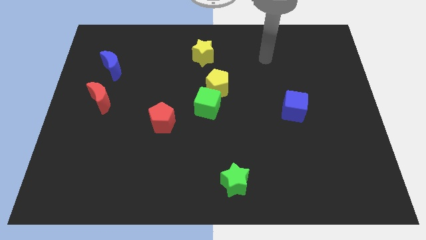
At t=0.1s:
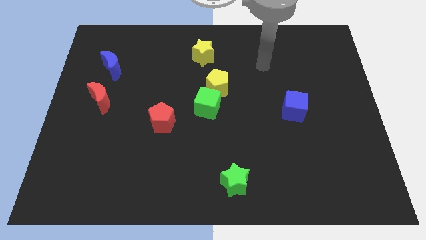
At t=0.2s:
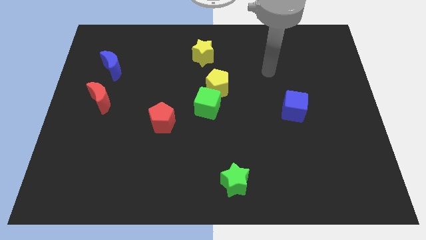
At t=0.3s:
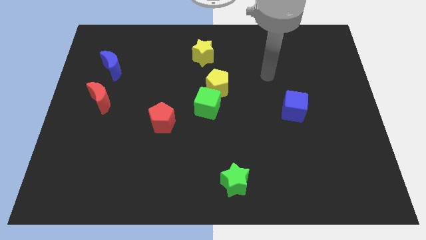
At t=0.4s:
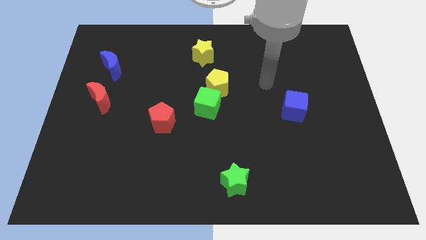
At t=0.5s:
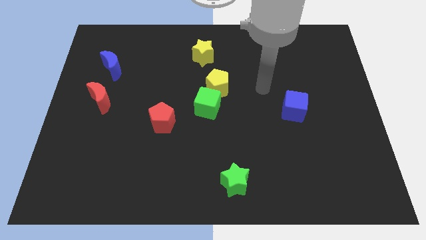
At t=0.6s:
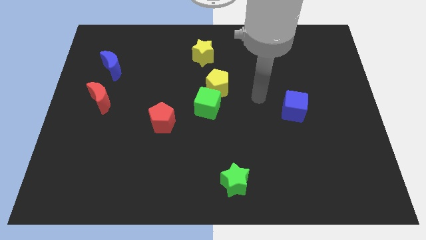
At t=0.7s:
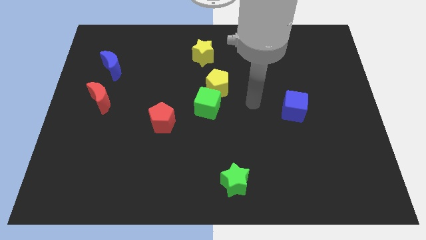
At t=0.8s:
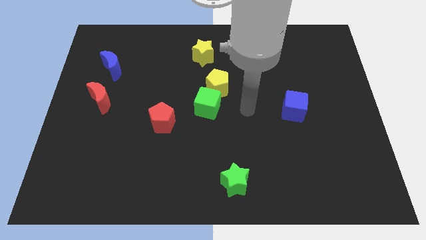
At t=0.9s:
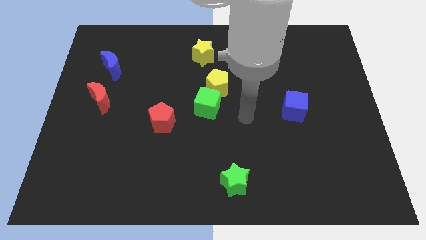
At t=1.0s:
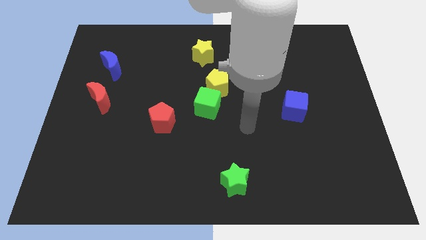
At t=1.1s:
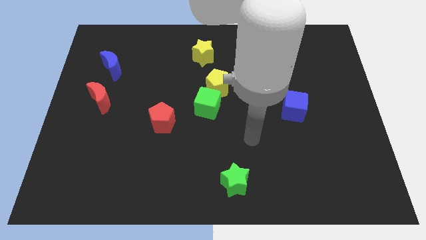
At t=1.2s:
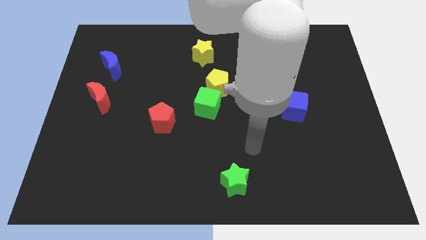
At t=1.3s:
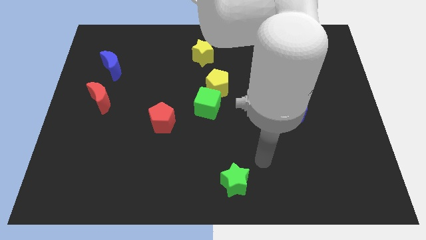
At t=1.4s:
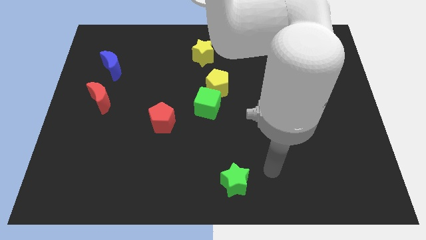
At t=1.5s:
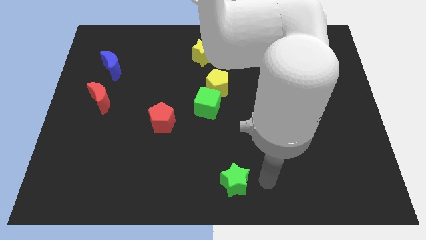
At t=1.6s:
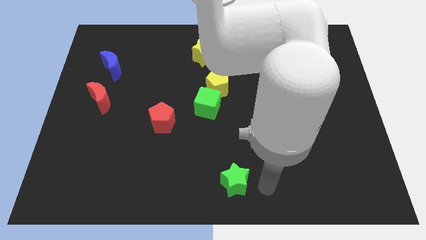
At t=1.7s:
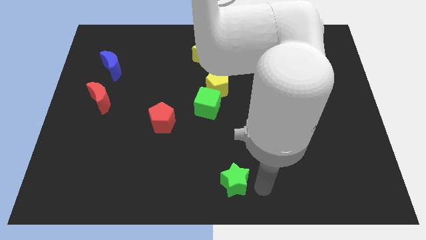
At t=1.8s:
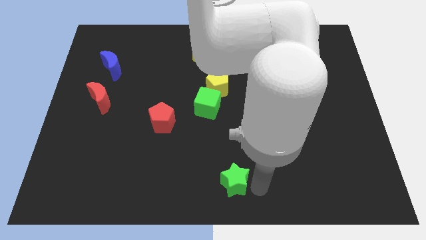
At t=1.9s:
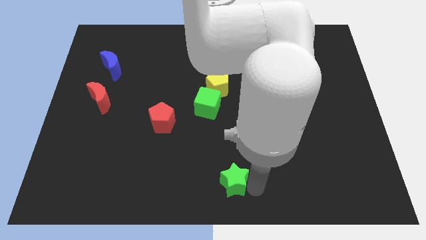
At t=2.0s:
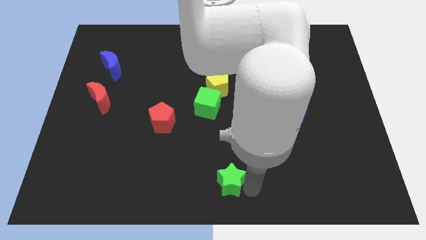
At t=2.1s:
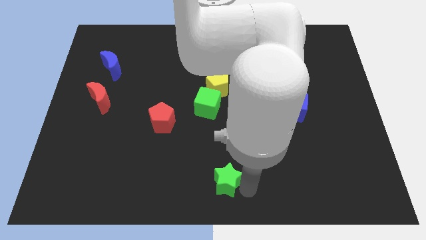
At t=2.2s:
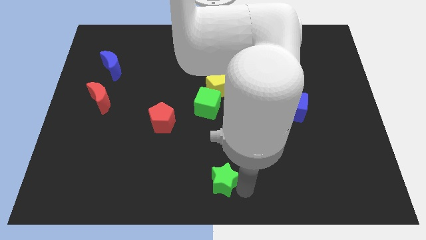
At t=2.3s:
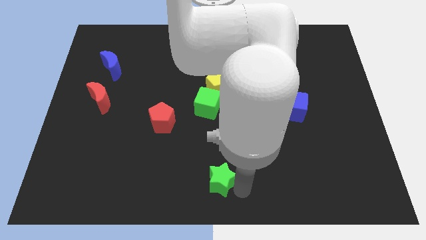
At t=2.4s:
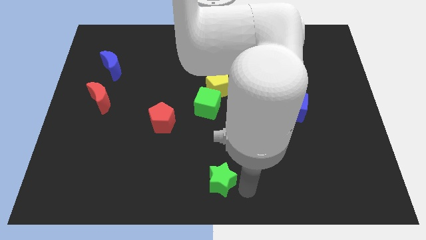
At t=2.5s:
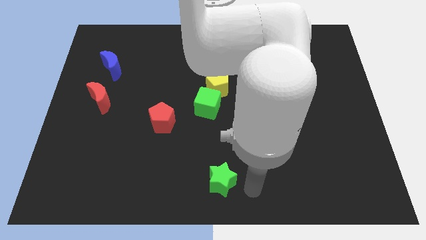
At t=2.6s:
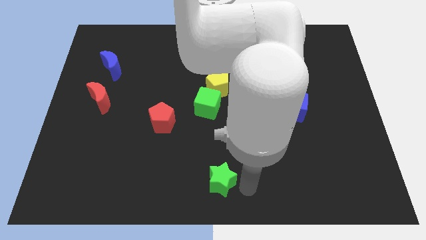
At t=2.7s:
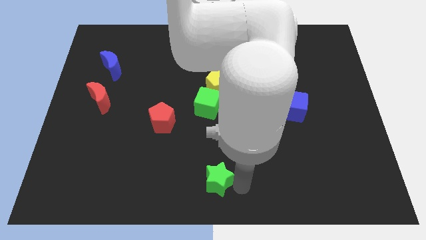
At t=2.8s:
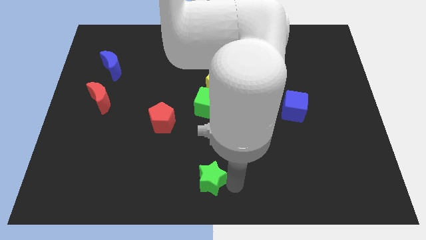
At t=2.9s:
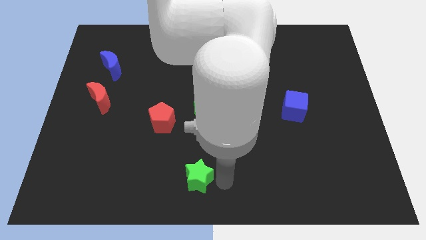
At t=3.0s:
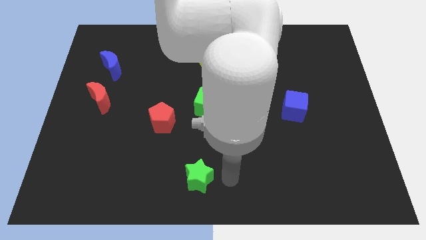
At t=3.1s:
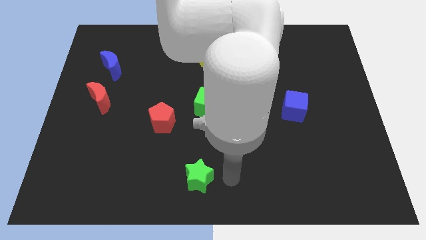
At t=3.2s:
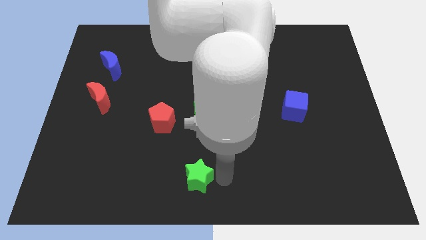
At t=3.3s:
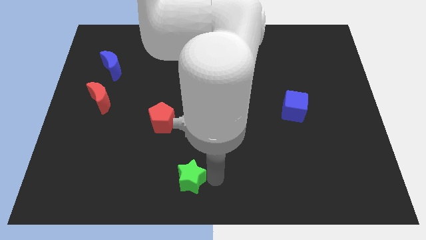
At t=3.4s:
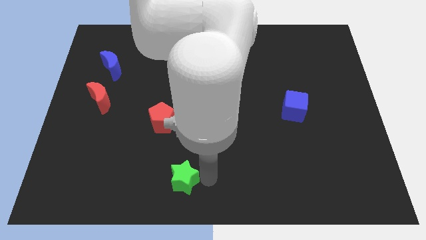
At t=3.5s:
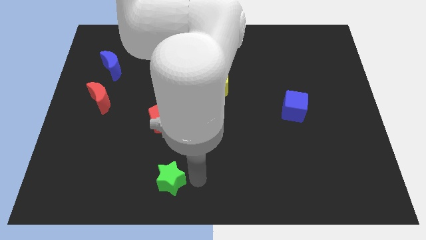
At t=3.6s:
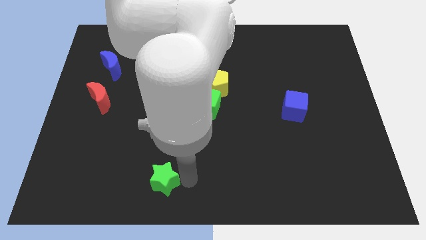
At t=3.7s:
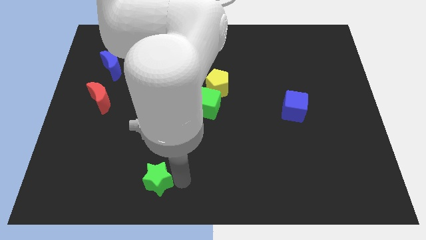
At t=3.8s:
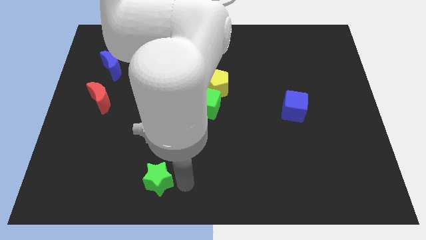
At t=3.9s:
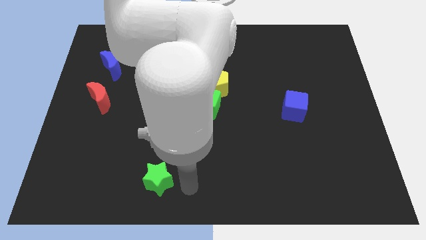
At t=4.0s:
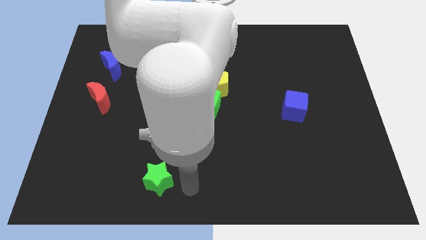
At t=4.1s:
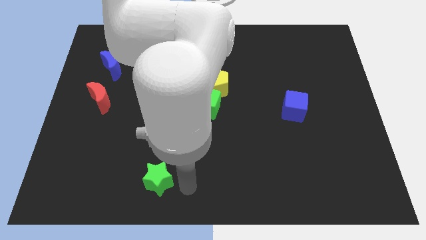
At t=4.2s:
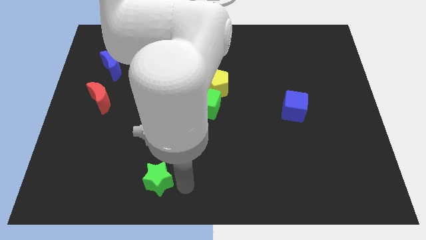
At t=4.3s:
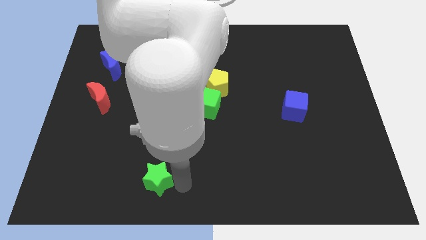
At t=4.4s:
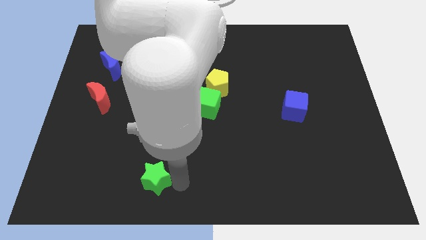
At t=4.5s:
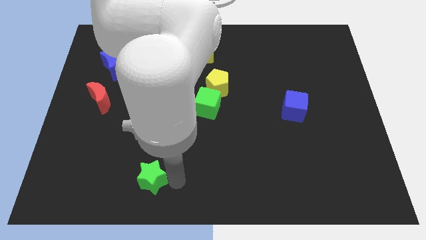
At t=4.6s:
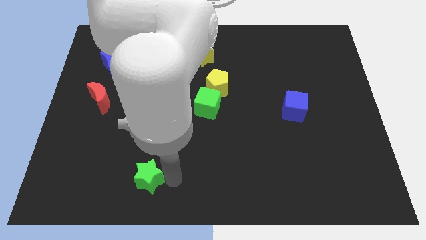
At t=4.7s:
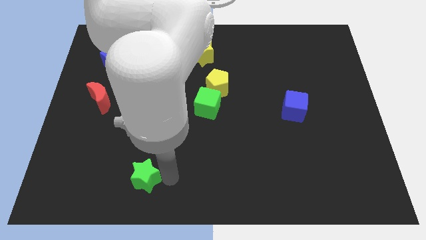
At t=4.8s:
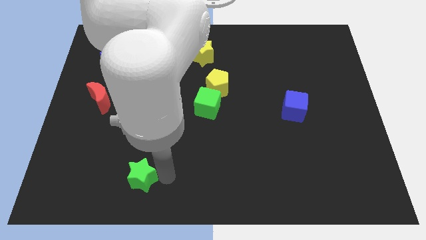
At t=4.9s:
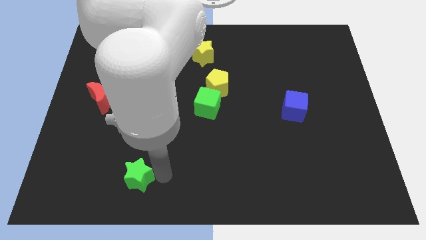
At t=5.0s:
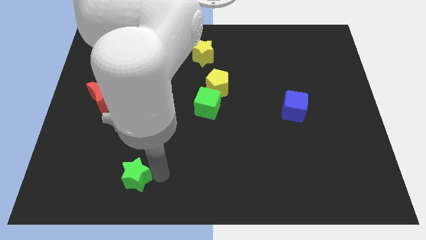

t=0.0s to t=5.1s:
slide the green star left

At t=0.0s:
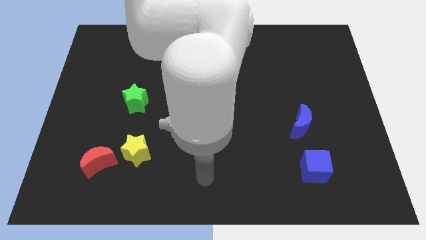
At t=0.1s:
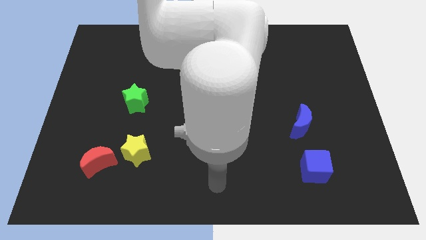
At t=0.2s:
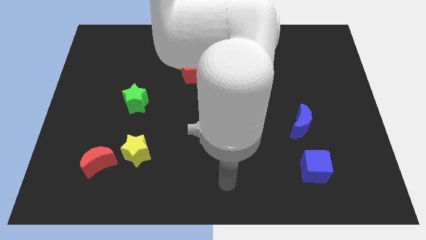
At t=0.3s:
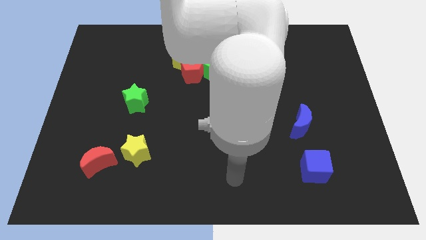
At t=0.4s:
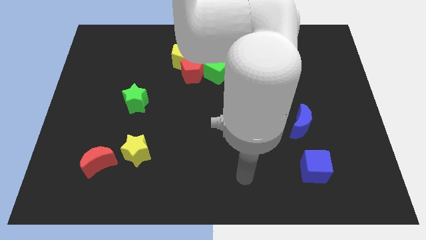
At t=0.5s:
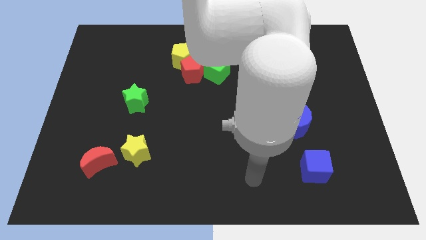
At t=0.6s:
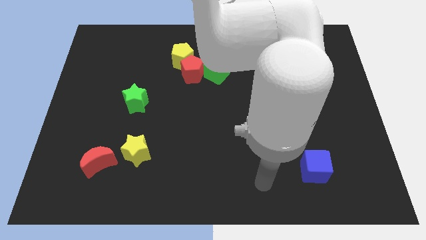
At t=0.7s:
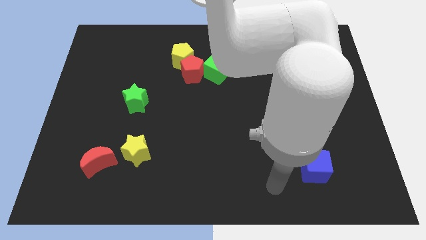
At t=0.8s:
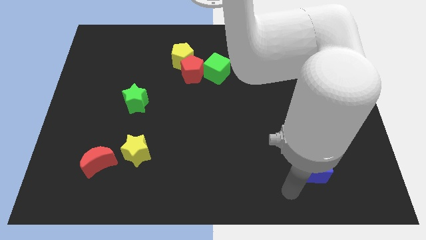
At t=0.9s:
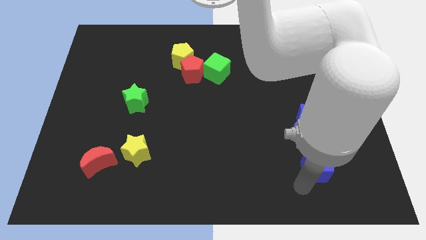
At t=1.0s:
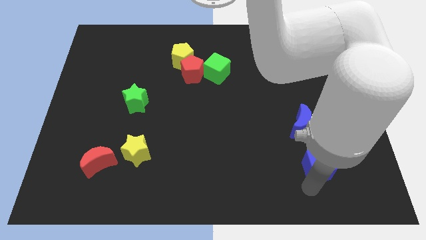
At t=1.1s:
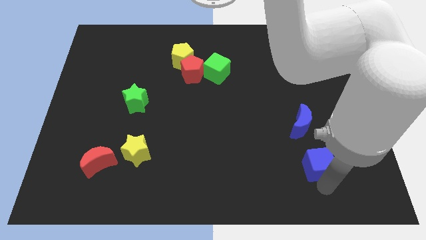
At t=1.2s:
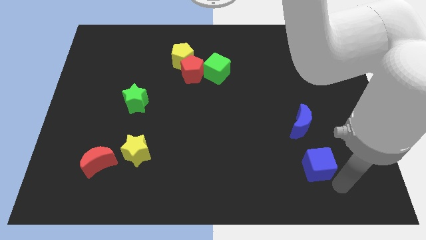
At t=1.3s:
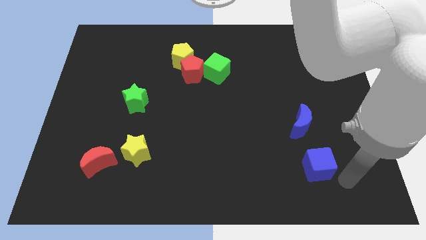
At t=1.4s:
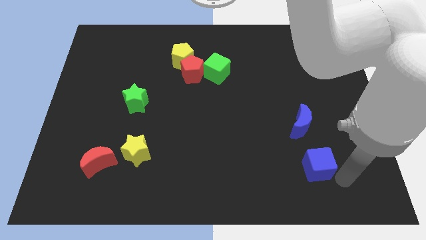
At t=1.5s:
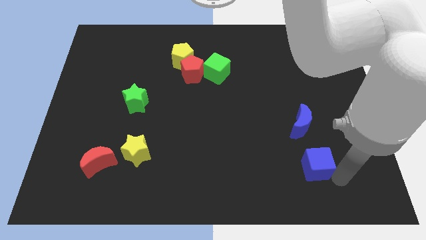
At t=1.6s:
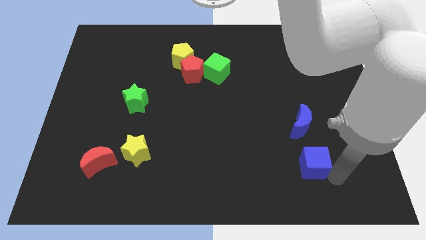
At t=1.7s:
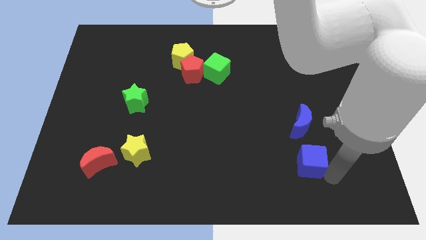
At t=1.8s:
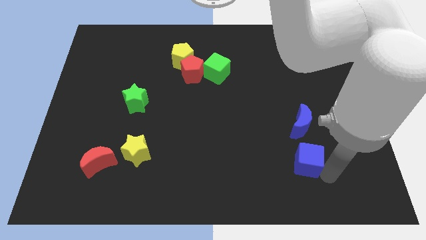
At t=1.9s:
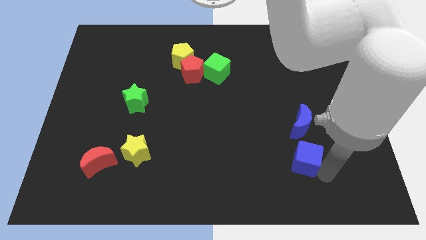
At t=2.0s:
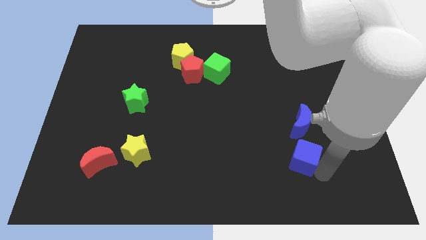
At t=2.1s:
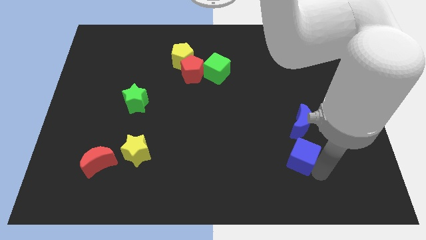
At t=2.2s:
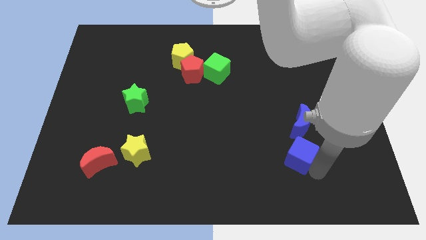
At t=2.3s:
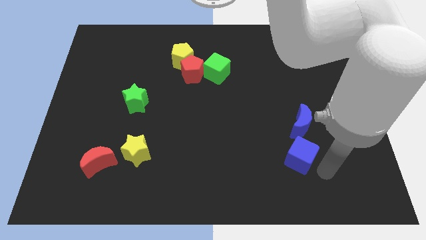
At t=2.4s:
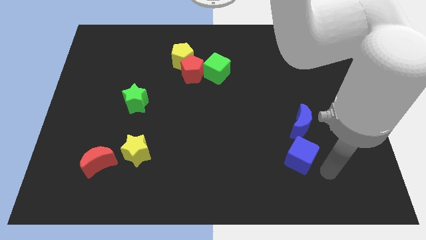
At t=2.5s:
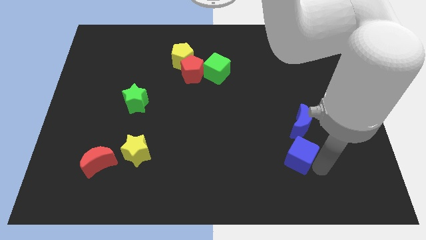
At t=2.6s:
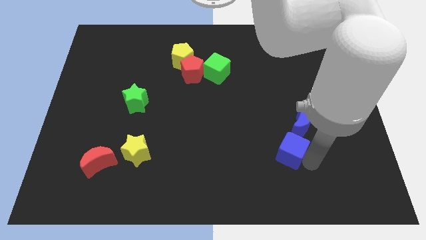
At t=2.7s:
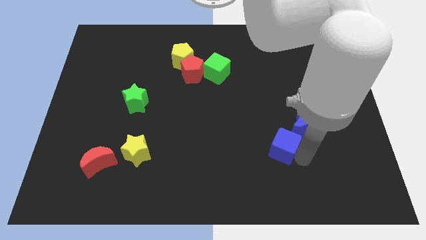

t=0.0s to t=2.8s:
push the blue cube a little up and left

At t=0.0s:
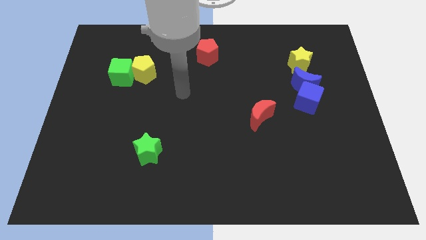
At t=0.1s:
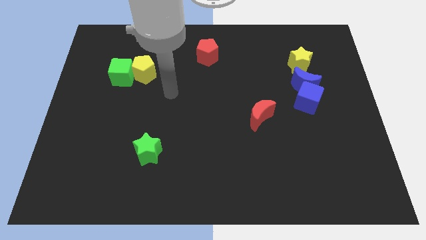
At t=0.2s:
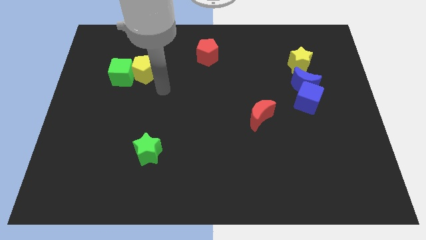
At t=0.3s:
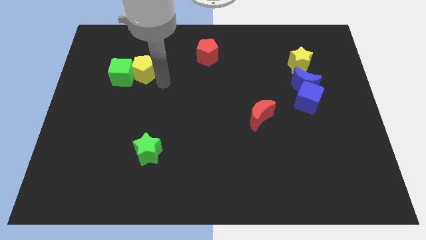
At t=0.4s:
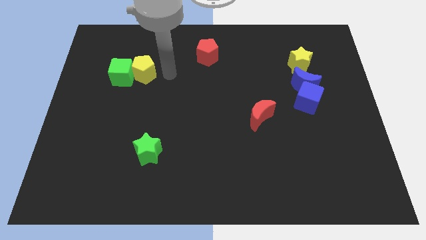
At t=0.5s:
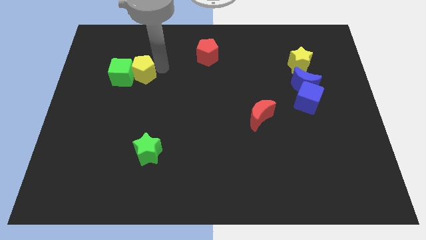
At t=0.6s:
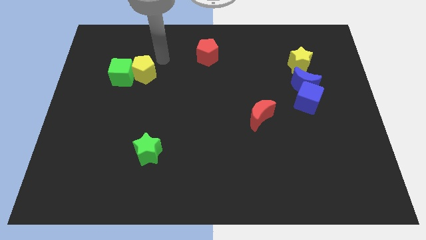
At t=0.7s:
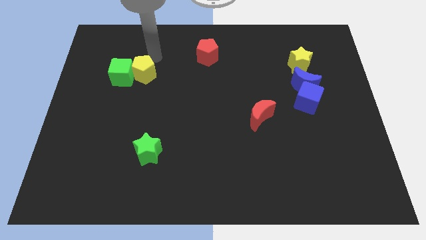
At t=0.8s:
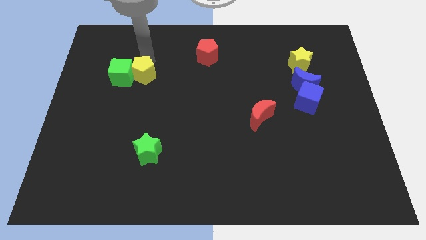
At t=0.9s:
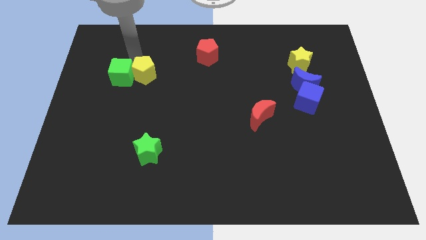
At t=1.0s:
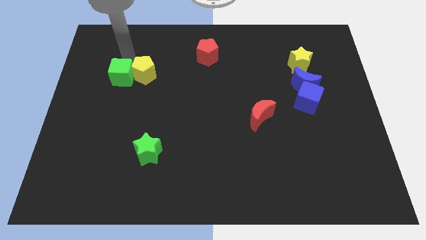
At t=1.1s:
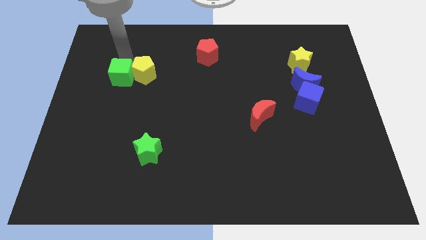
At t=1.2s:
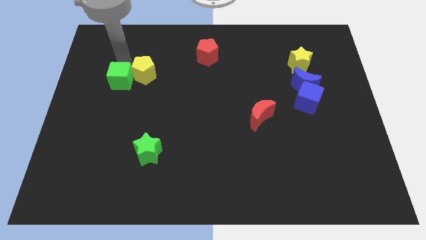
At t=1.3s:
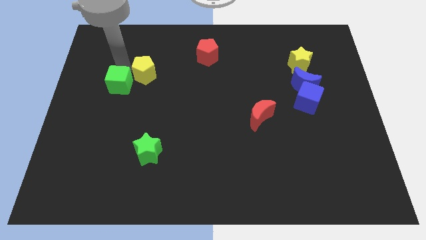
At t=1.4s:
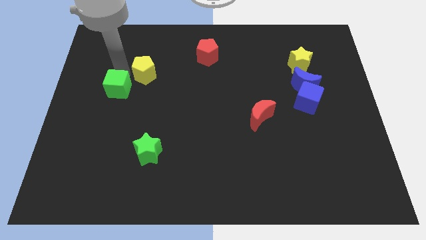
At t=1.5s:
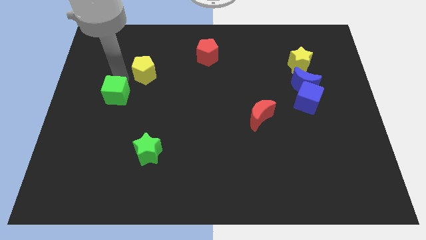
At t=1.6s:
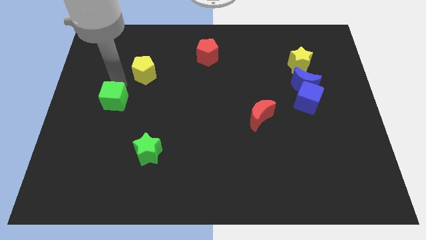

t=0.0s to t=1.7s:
slightly slide the green cube down
